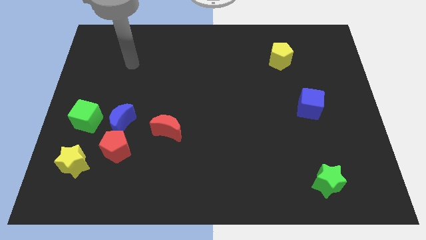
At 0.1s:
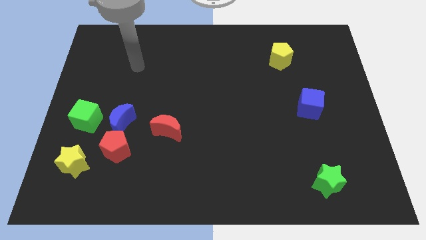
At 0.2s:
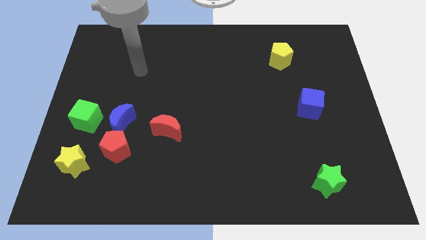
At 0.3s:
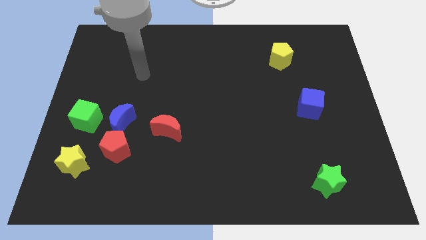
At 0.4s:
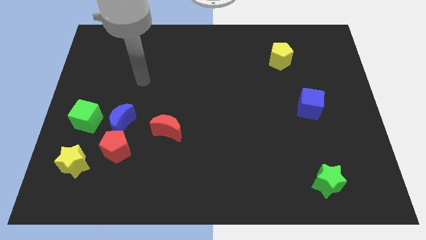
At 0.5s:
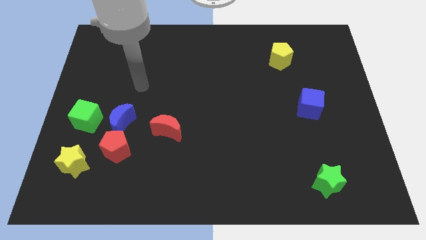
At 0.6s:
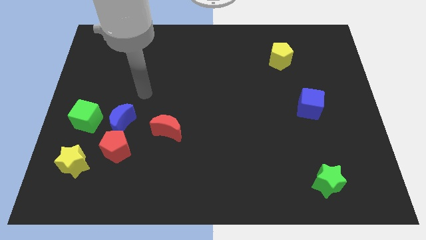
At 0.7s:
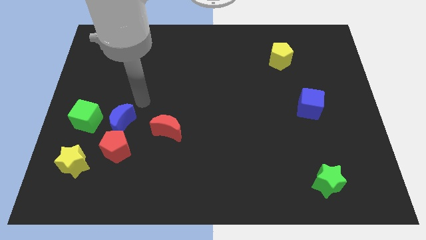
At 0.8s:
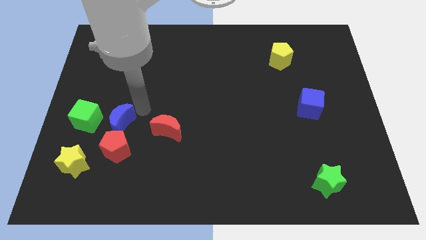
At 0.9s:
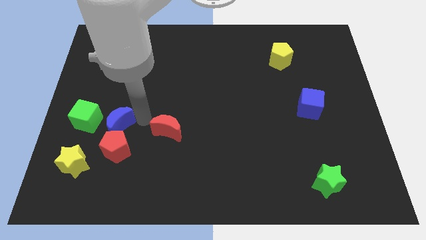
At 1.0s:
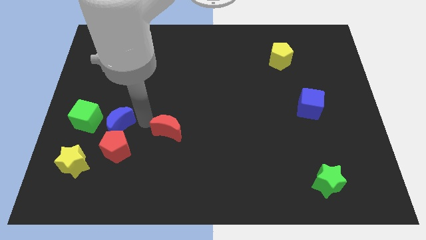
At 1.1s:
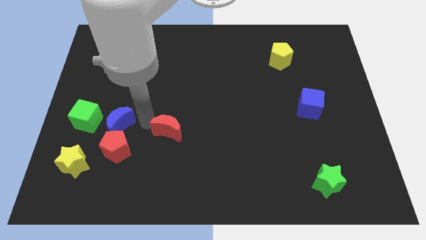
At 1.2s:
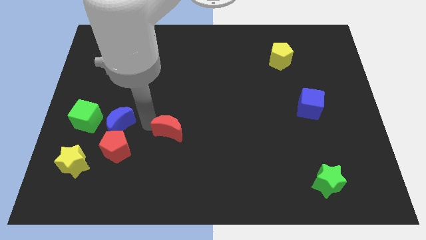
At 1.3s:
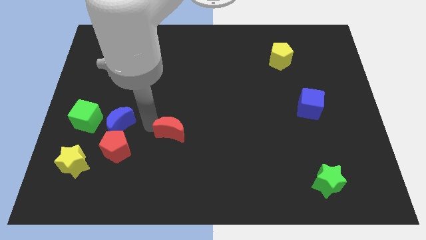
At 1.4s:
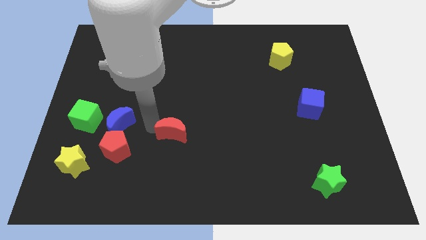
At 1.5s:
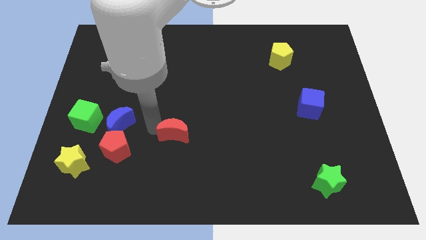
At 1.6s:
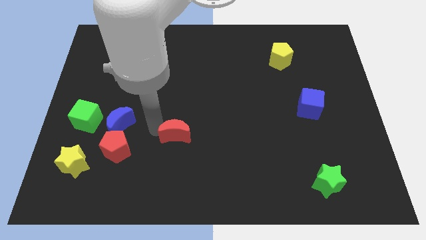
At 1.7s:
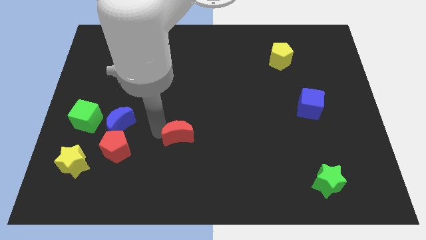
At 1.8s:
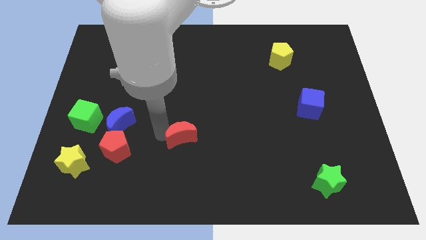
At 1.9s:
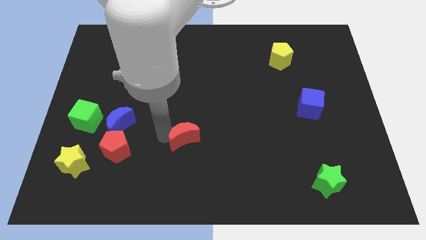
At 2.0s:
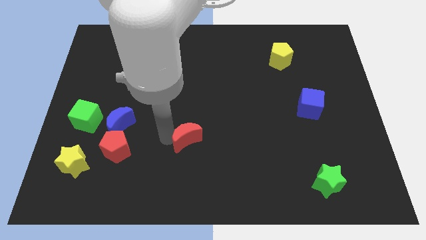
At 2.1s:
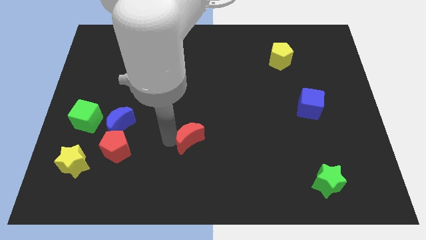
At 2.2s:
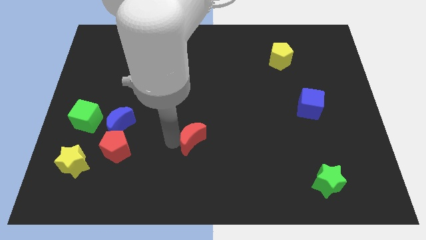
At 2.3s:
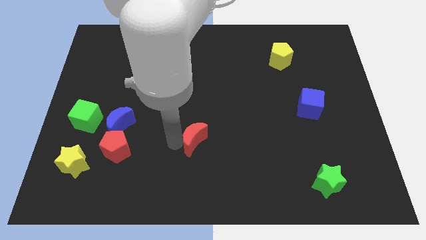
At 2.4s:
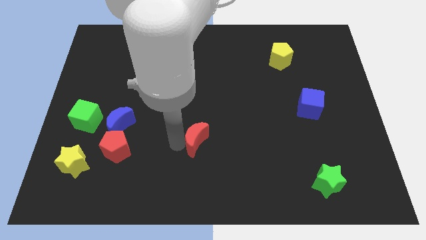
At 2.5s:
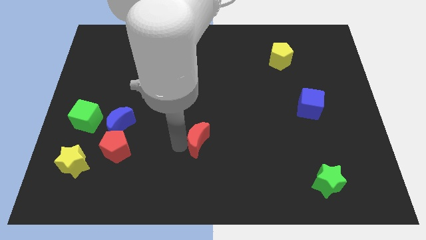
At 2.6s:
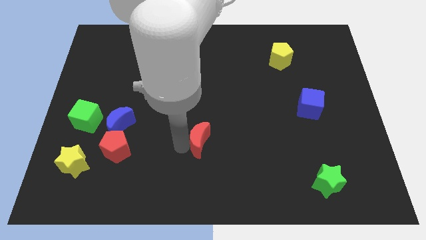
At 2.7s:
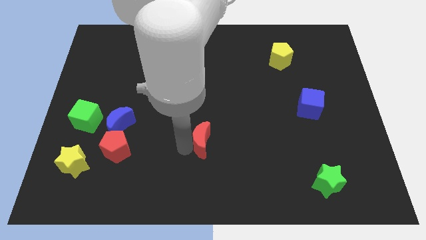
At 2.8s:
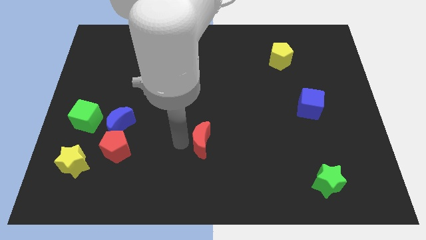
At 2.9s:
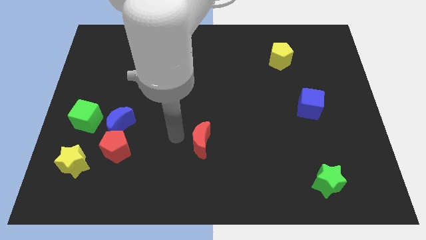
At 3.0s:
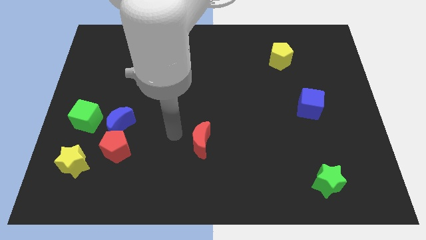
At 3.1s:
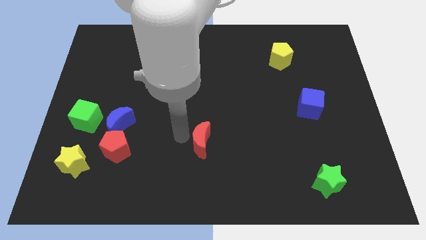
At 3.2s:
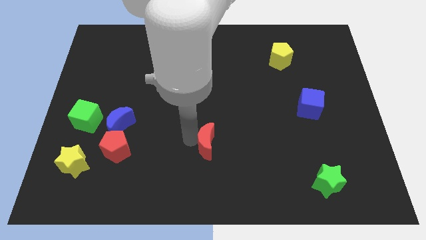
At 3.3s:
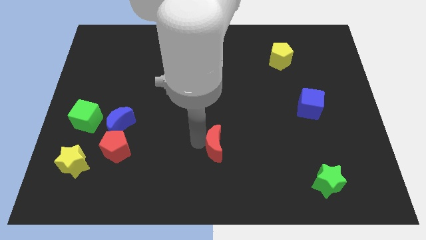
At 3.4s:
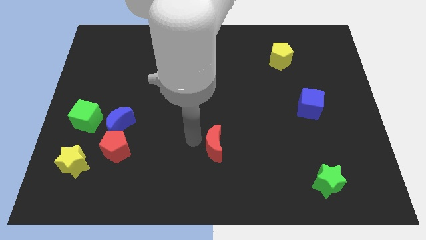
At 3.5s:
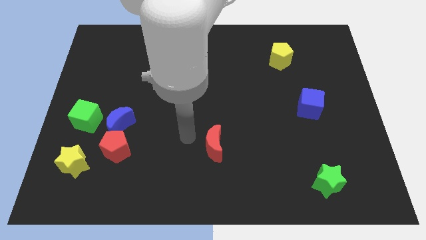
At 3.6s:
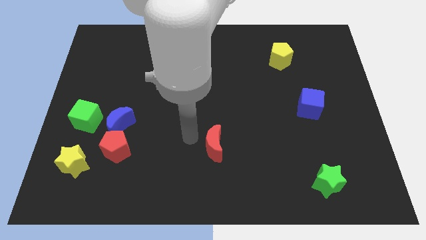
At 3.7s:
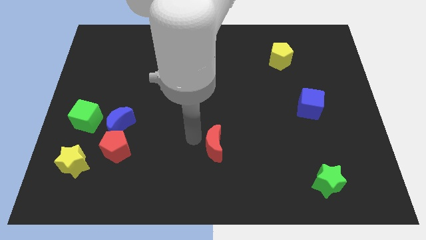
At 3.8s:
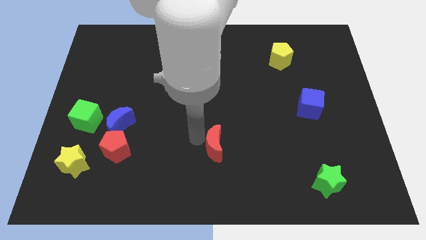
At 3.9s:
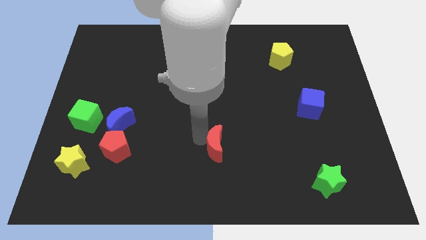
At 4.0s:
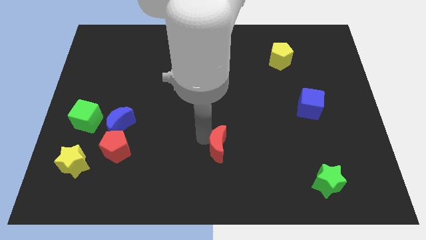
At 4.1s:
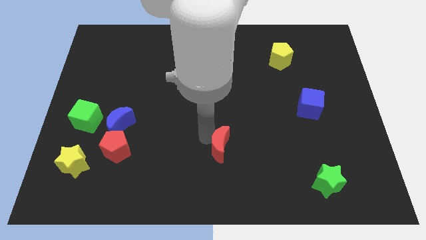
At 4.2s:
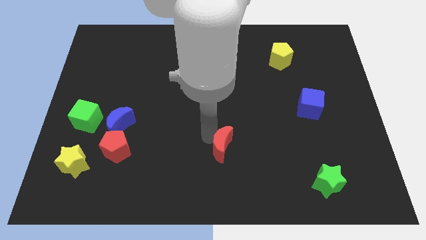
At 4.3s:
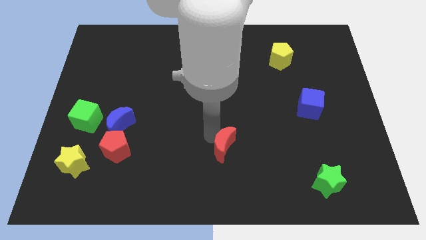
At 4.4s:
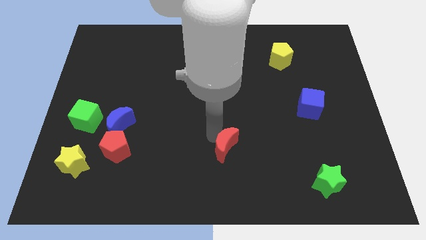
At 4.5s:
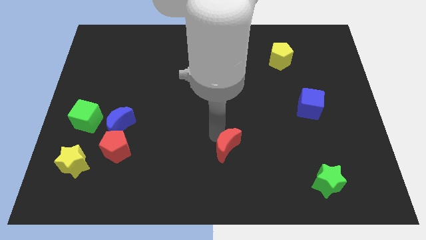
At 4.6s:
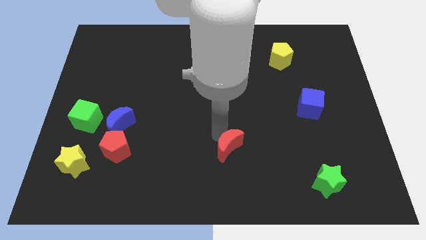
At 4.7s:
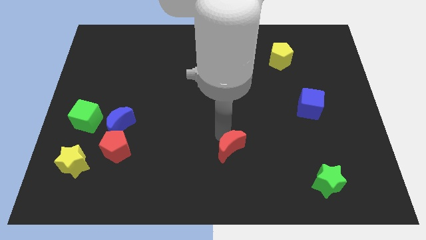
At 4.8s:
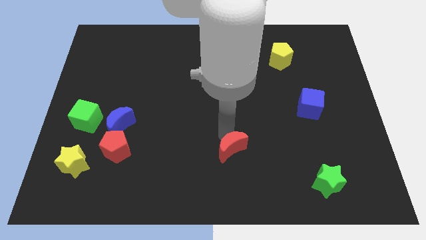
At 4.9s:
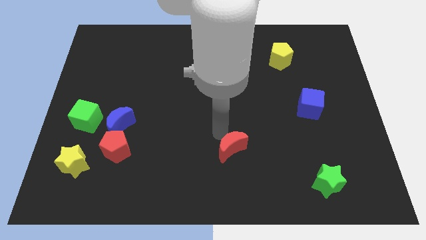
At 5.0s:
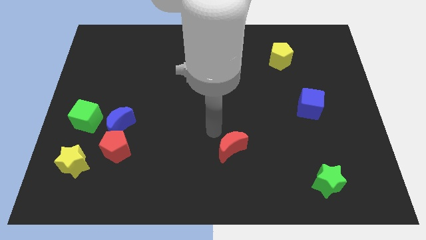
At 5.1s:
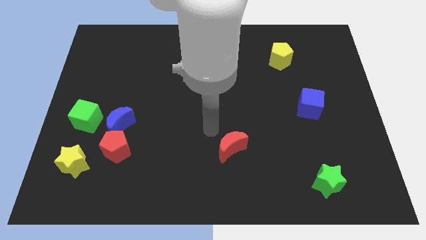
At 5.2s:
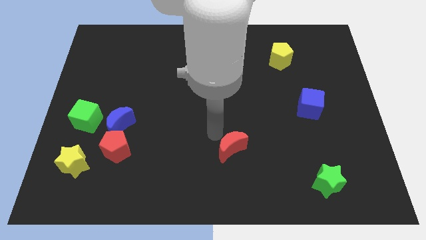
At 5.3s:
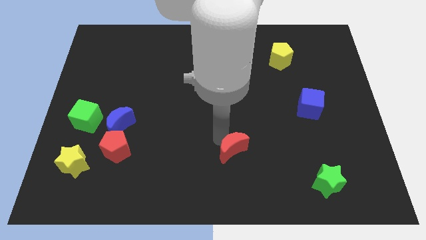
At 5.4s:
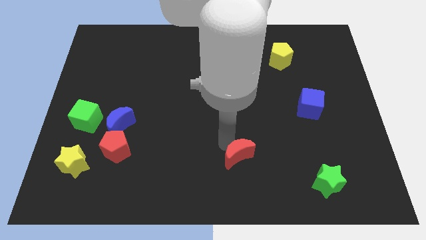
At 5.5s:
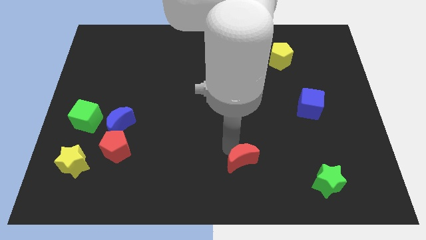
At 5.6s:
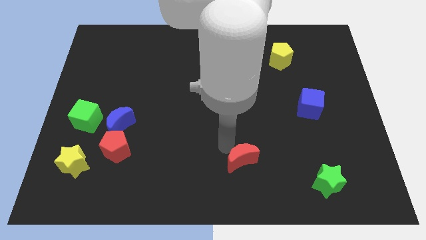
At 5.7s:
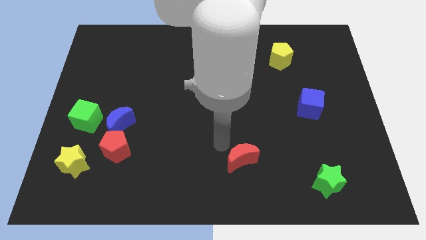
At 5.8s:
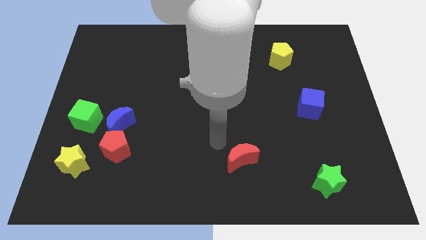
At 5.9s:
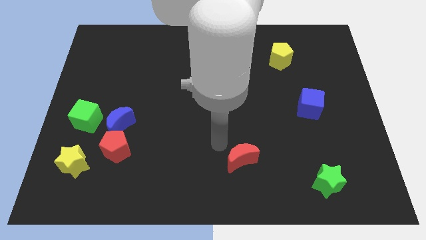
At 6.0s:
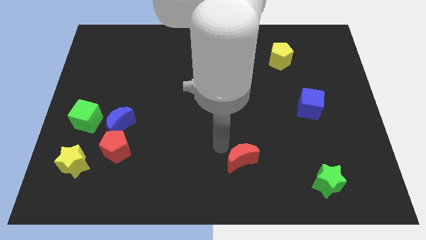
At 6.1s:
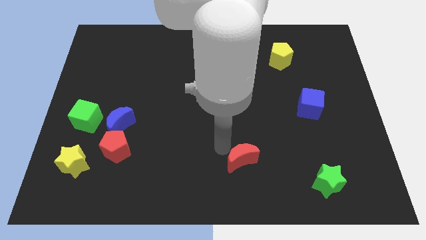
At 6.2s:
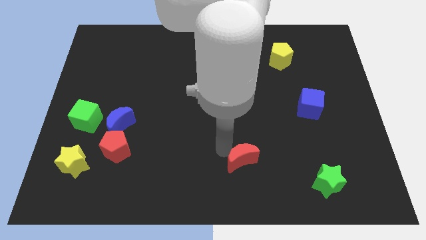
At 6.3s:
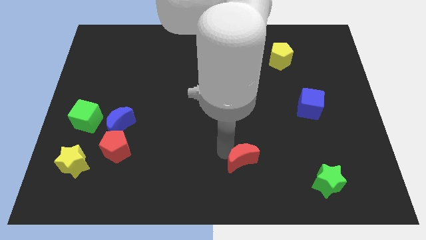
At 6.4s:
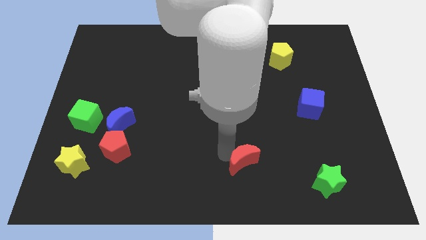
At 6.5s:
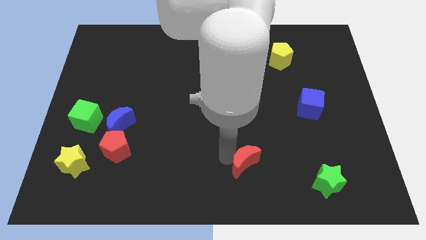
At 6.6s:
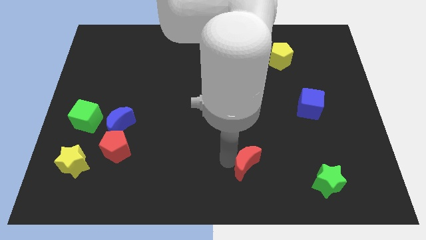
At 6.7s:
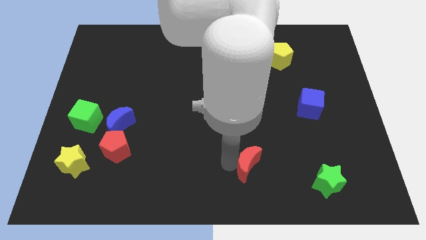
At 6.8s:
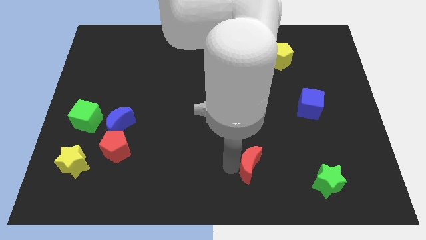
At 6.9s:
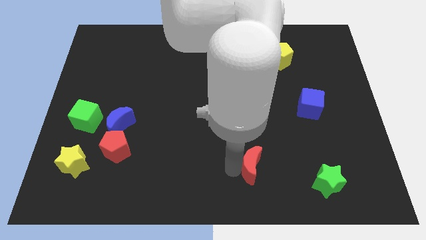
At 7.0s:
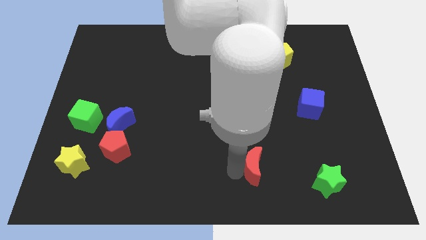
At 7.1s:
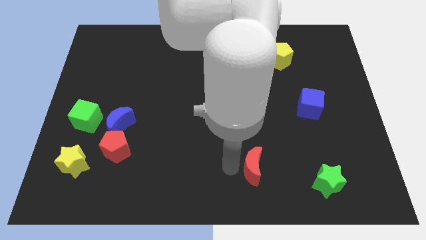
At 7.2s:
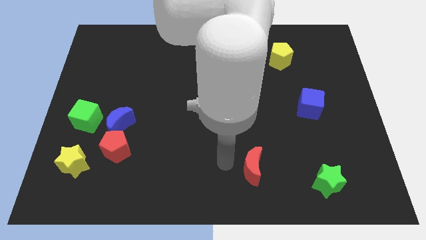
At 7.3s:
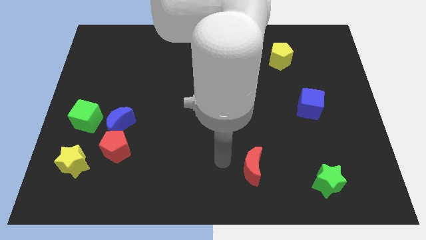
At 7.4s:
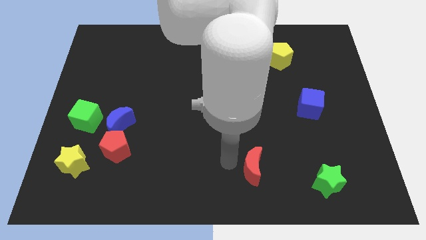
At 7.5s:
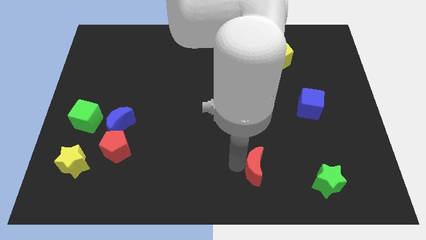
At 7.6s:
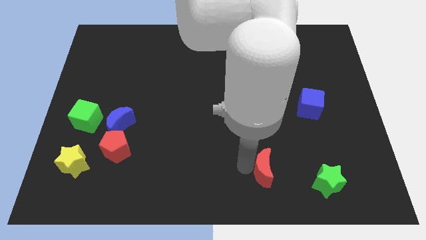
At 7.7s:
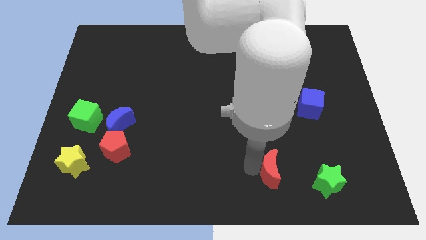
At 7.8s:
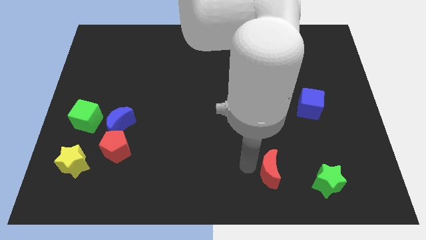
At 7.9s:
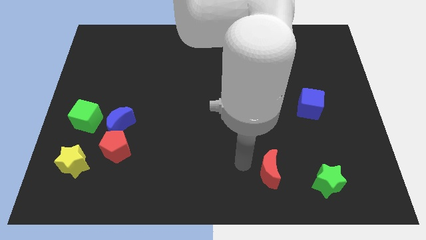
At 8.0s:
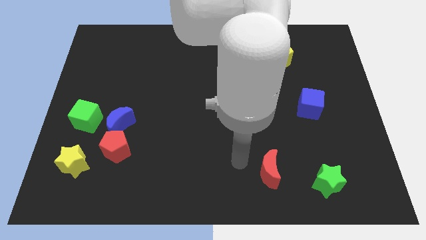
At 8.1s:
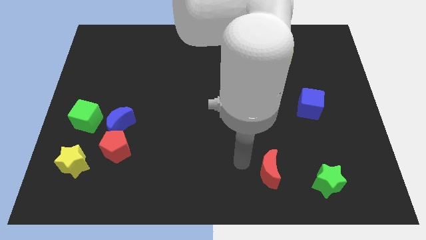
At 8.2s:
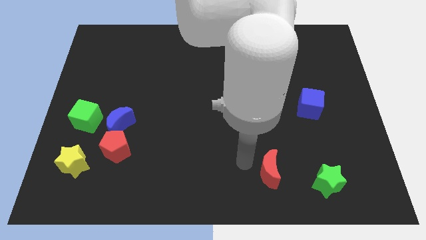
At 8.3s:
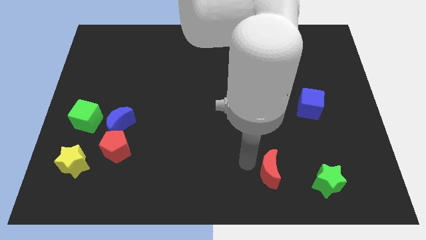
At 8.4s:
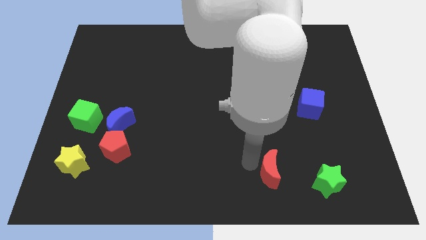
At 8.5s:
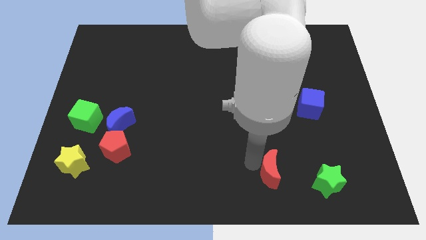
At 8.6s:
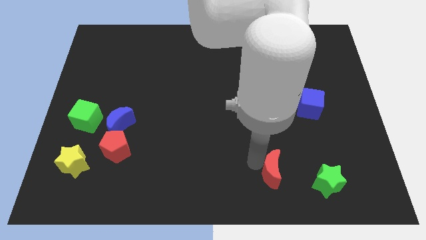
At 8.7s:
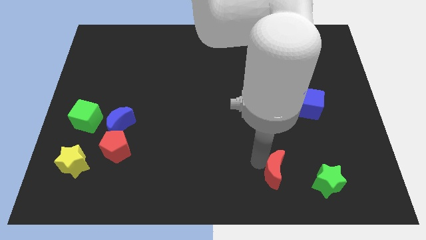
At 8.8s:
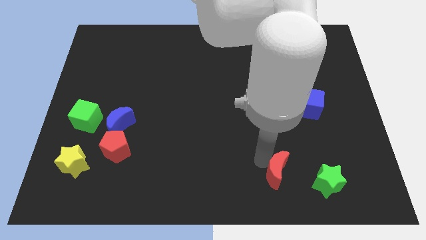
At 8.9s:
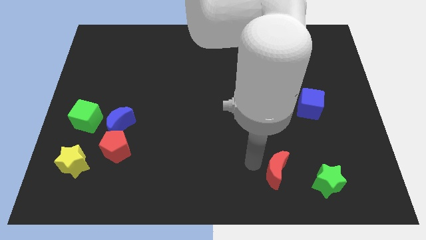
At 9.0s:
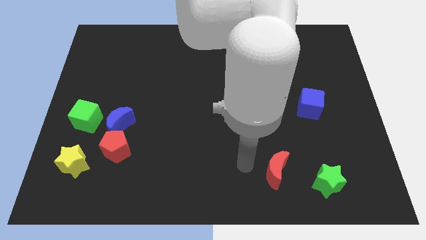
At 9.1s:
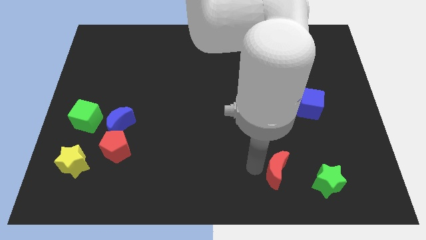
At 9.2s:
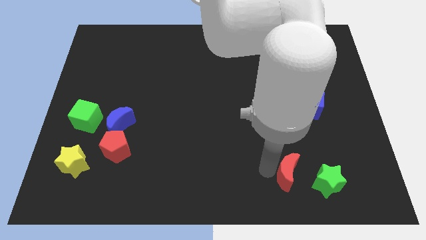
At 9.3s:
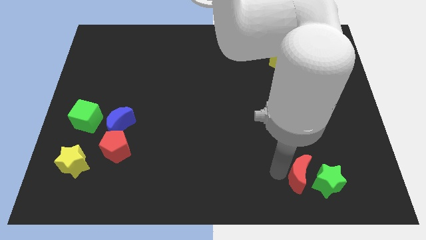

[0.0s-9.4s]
slide the red moon close to the green star
